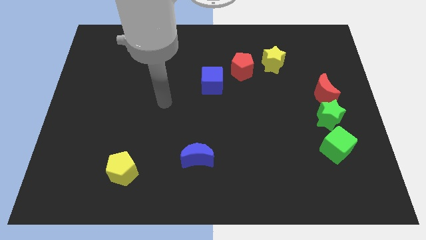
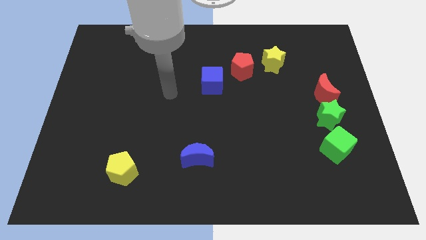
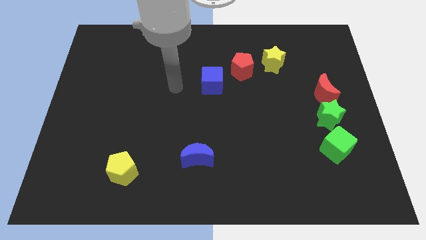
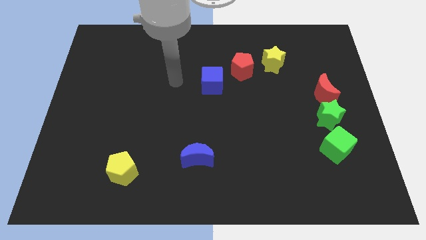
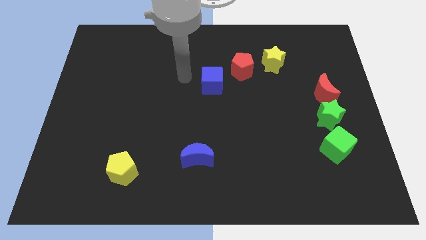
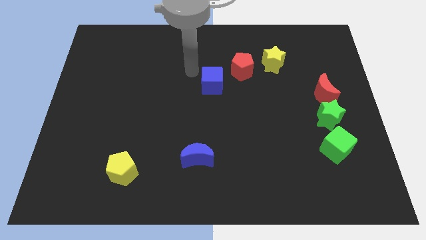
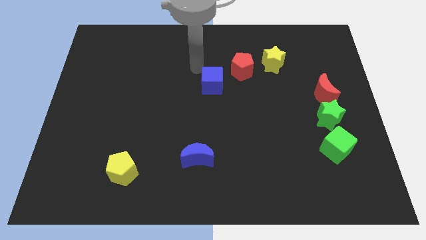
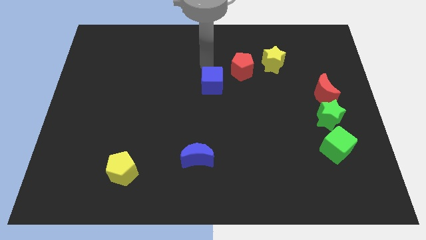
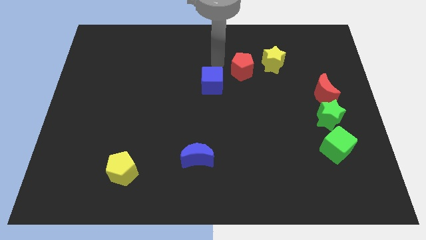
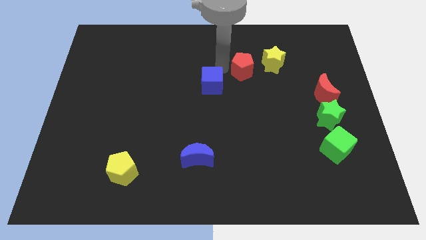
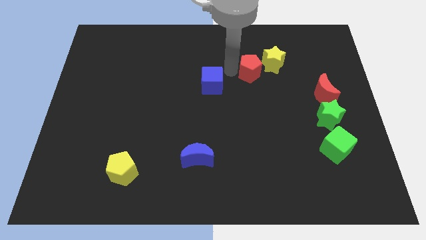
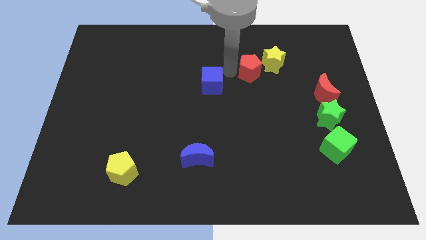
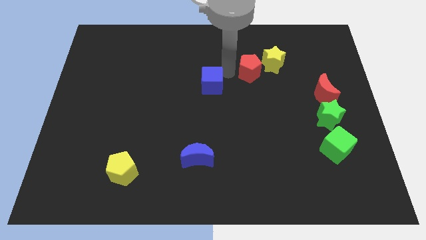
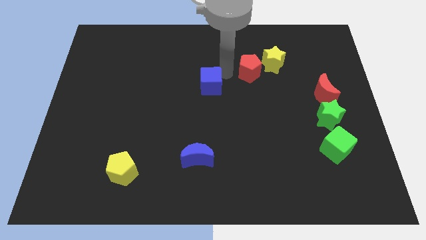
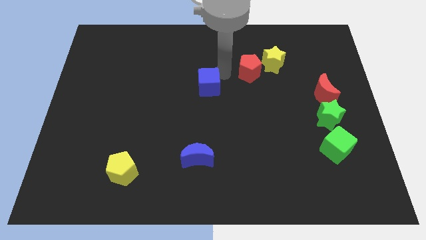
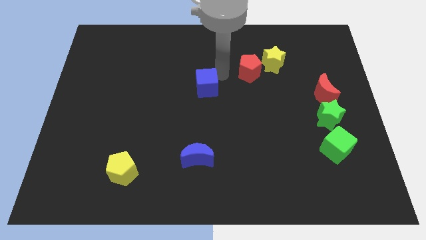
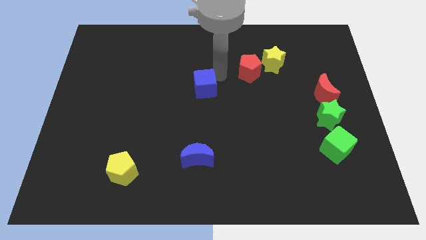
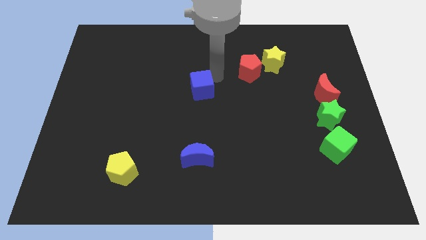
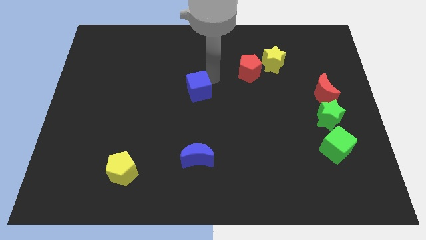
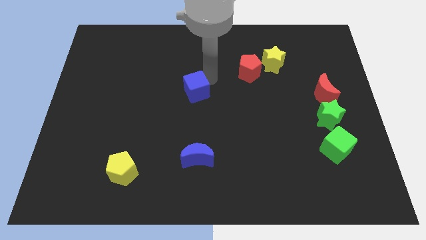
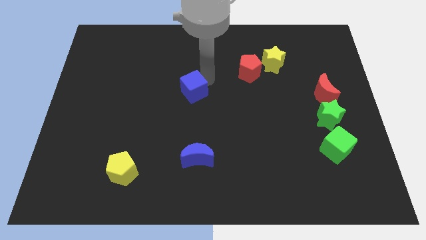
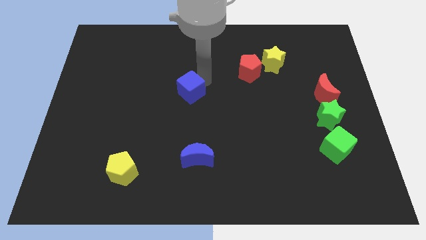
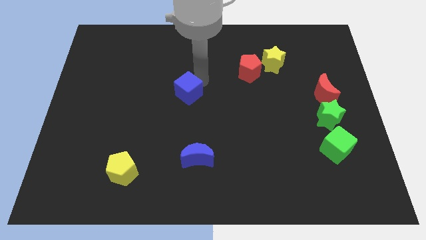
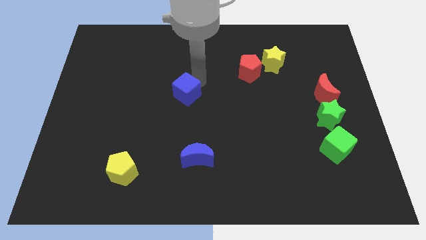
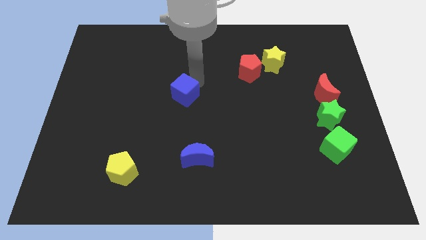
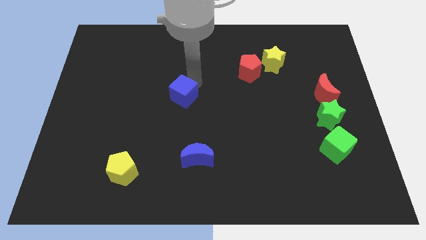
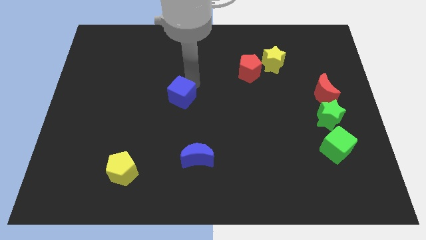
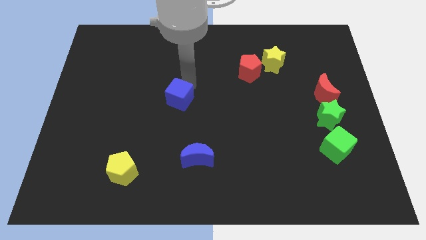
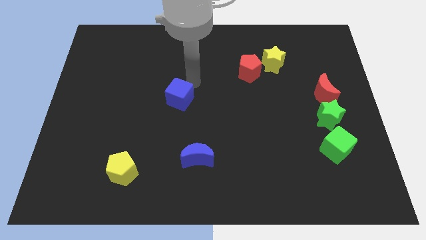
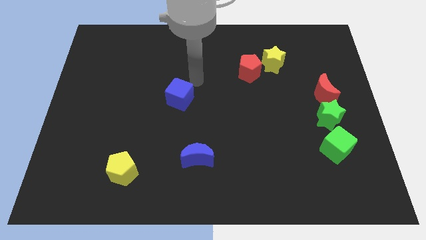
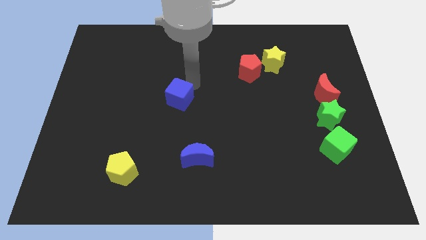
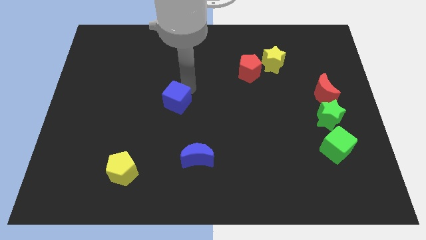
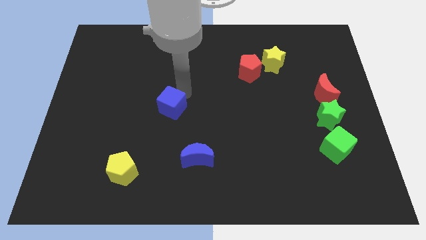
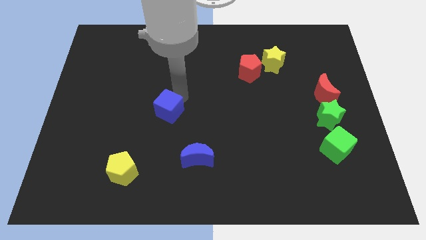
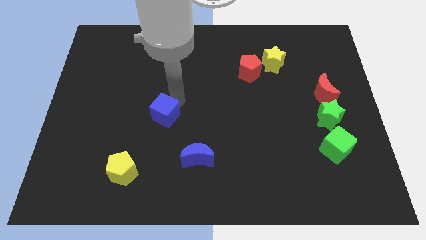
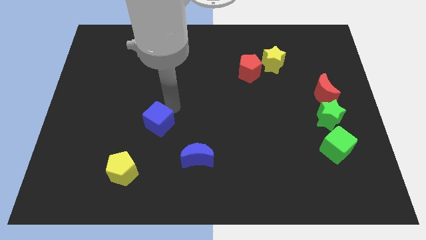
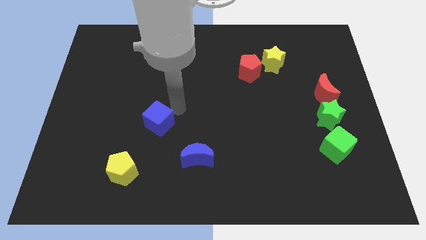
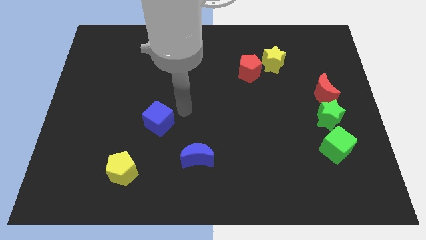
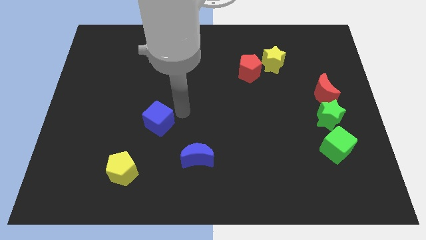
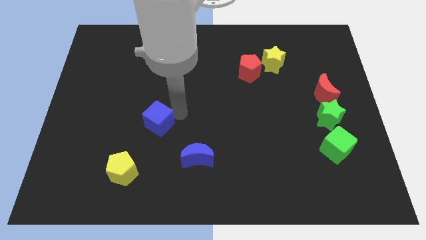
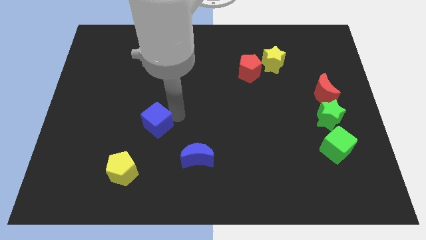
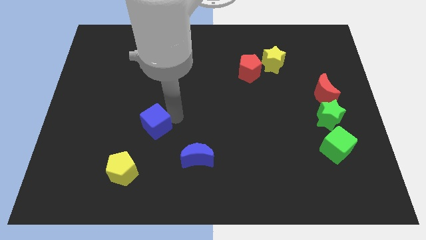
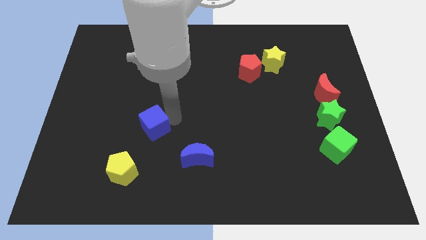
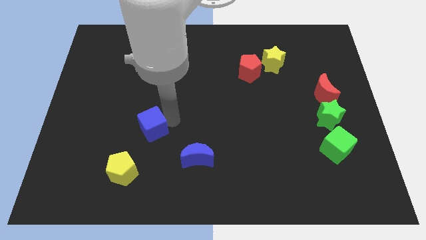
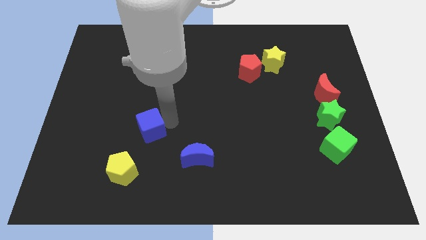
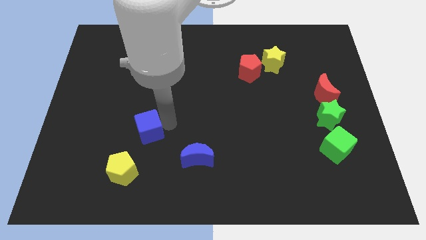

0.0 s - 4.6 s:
move the blue cube downwards and then left

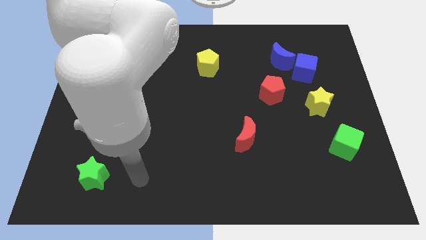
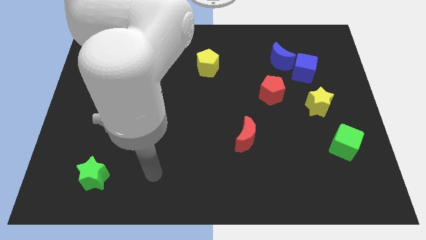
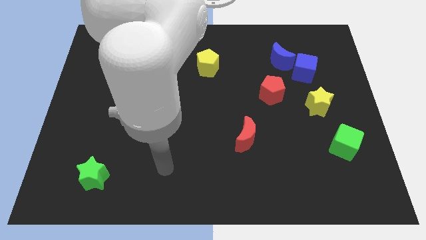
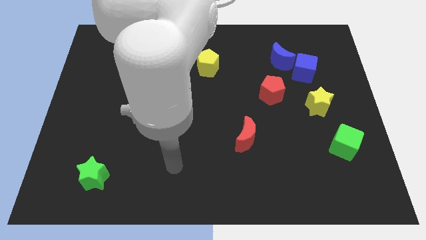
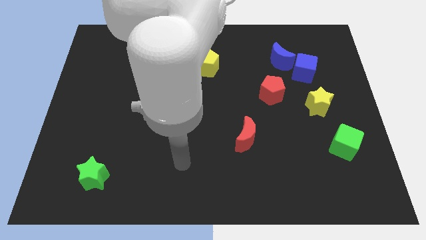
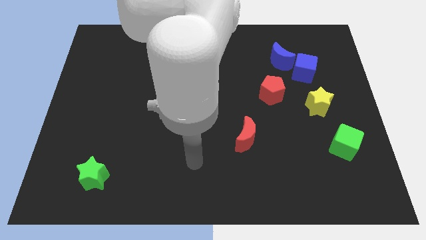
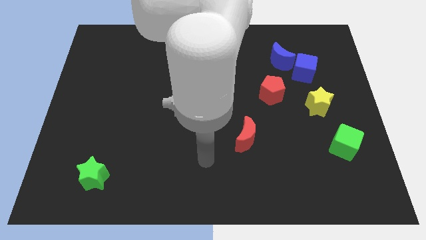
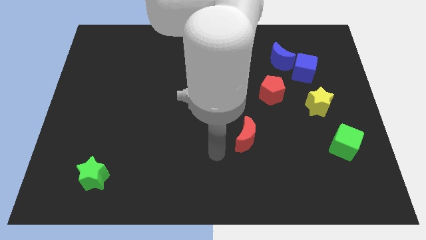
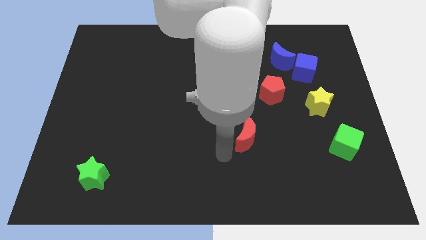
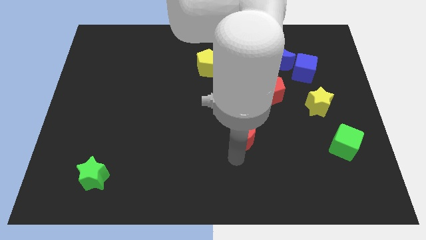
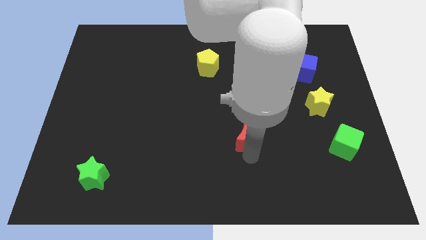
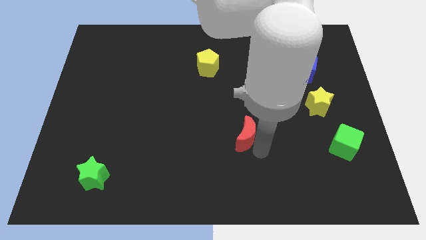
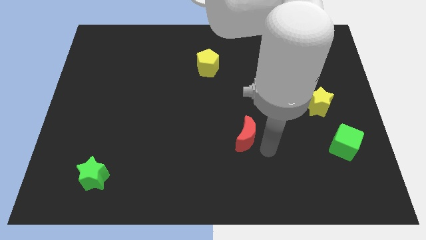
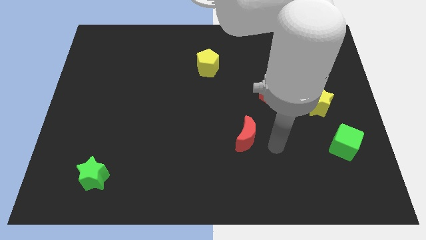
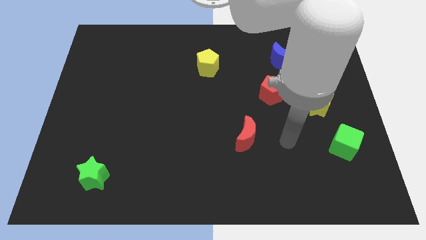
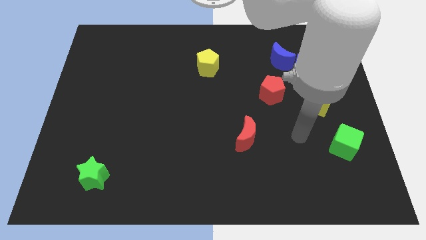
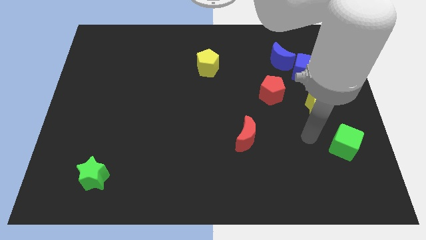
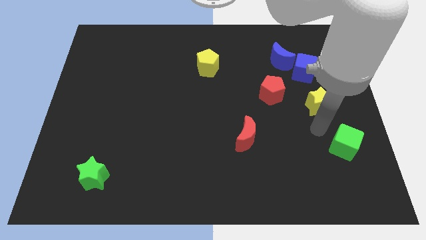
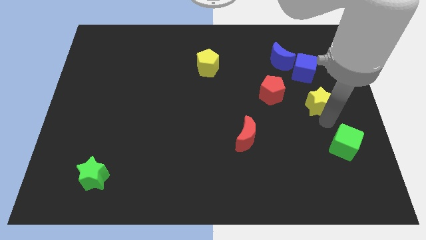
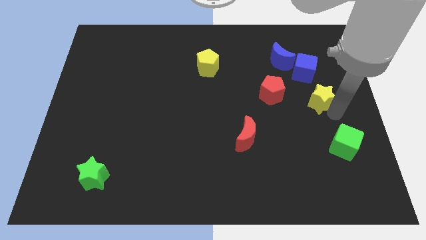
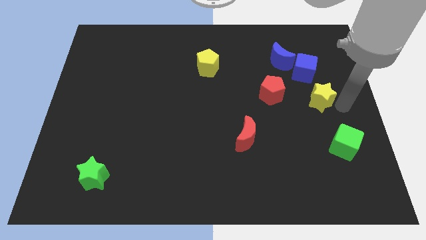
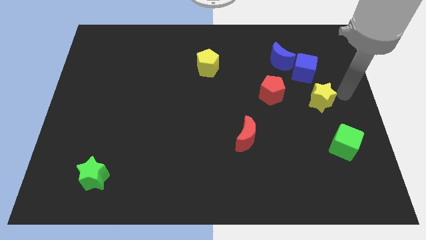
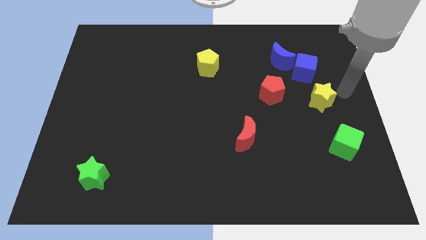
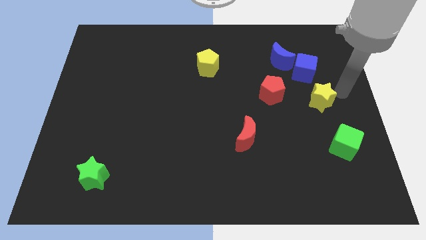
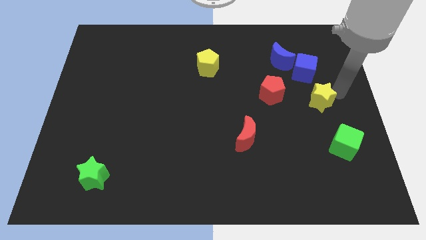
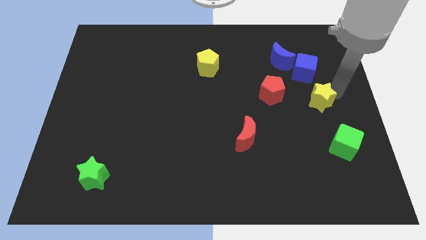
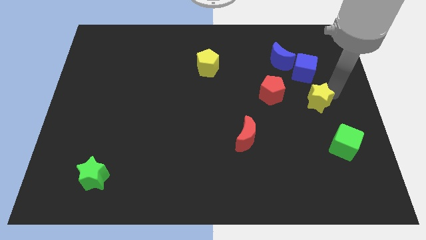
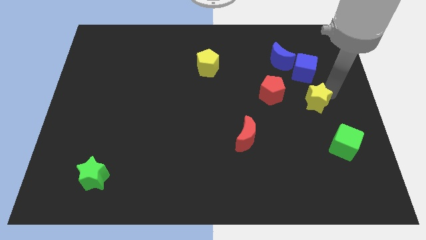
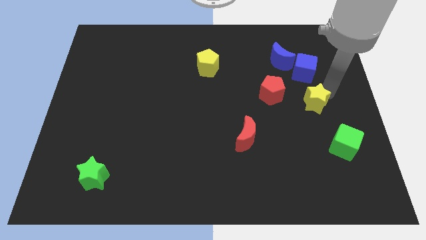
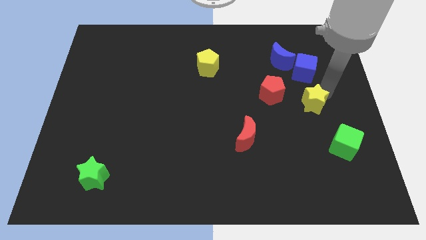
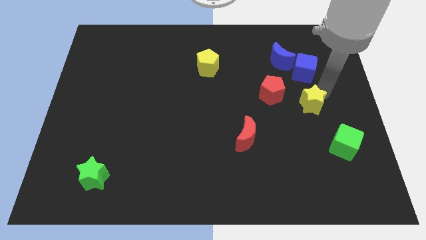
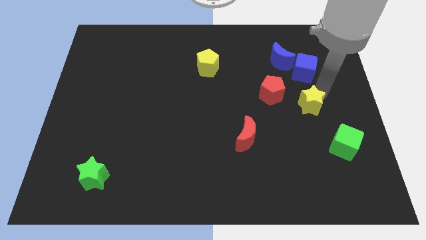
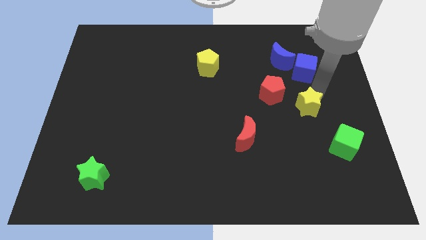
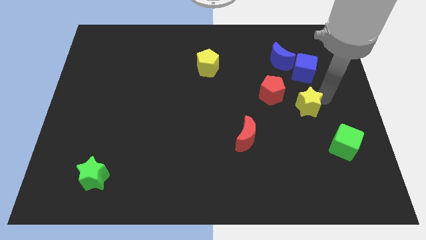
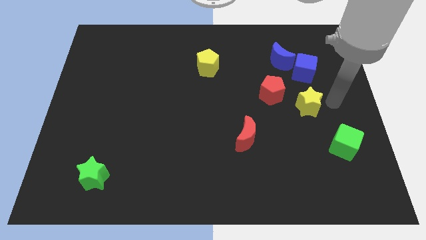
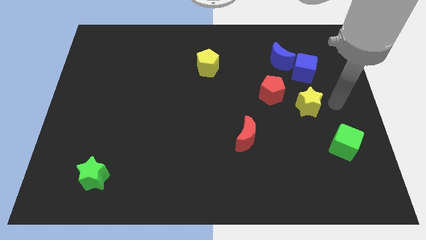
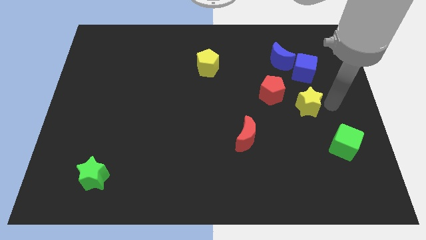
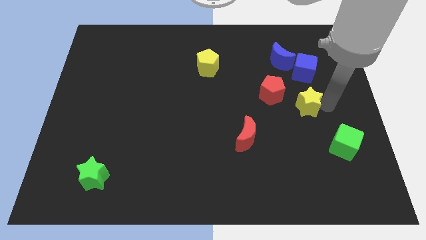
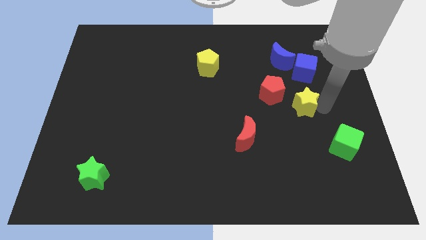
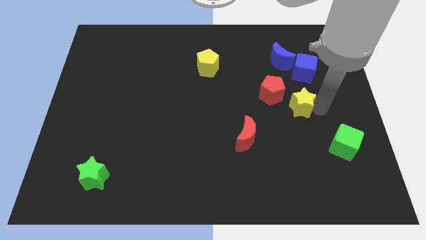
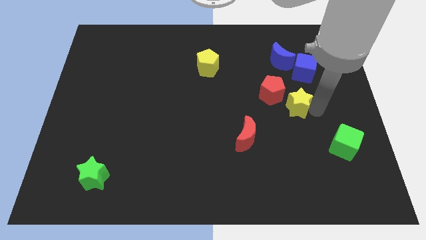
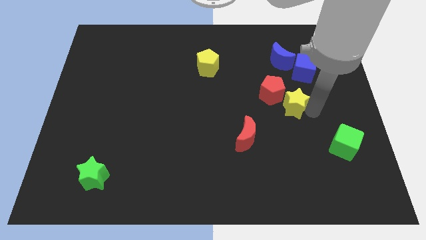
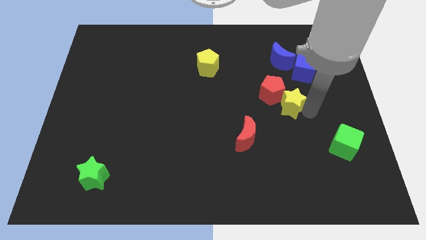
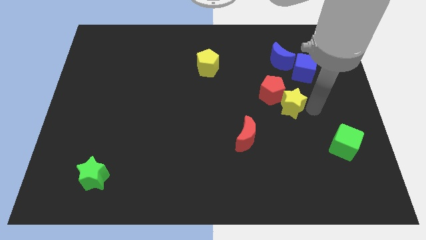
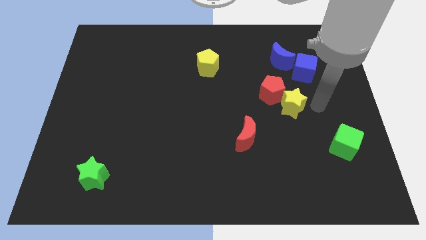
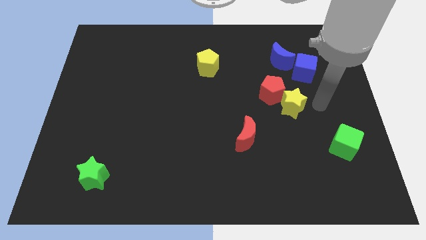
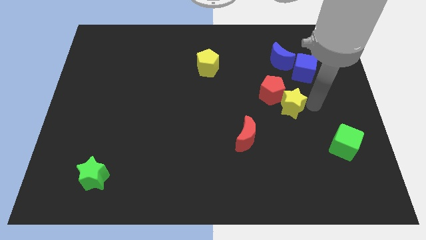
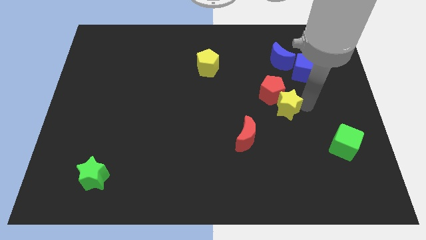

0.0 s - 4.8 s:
slide the yellow star left somewhat
